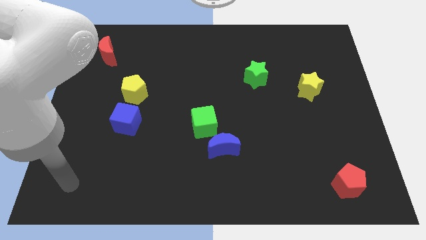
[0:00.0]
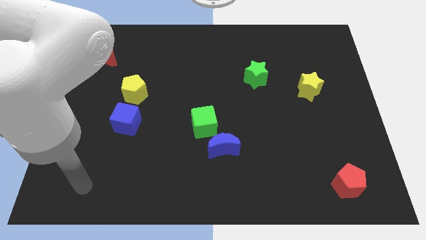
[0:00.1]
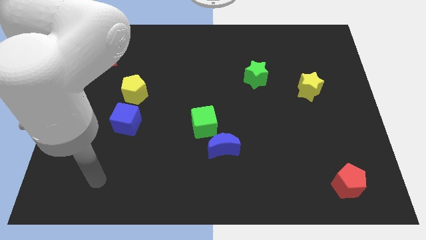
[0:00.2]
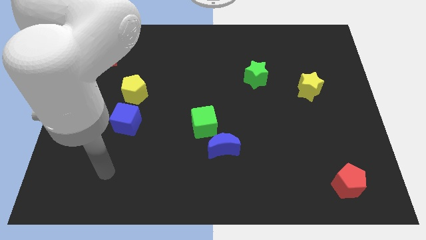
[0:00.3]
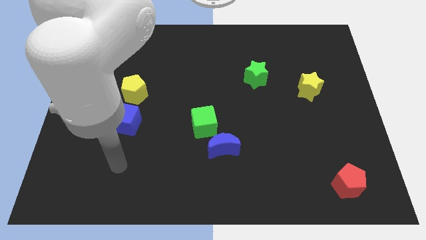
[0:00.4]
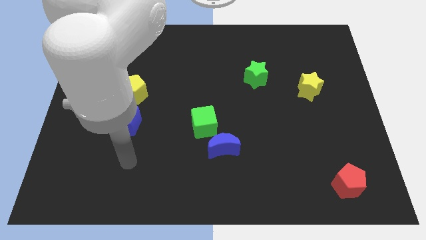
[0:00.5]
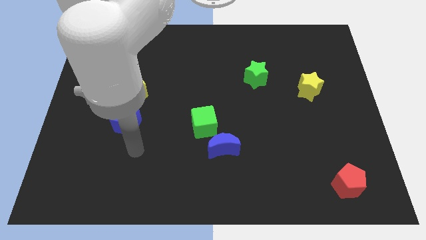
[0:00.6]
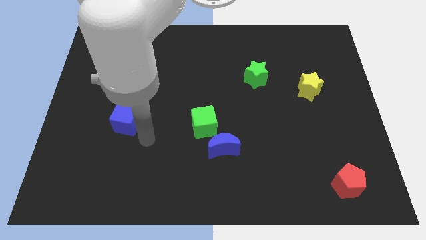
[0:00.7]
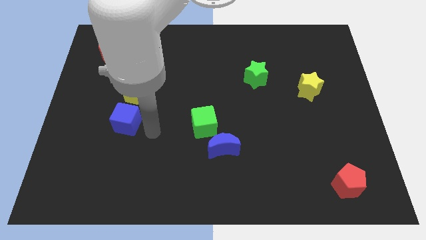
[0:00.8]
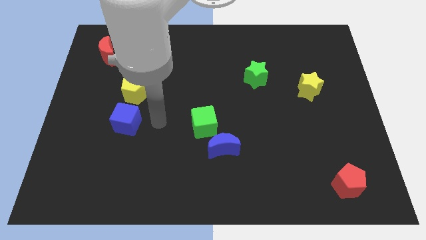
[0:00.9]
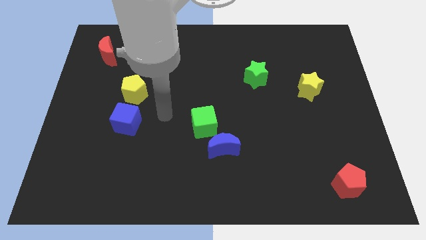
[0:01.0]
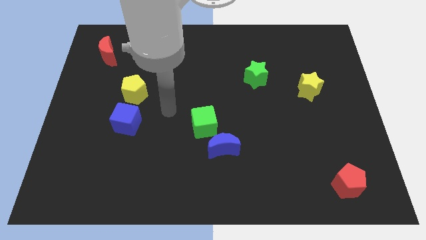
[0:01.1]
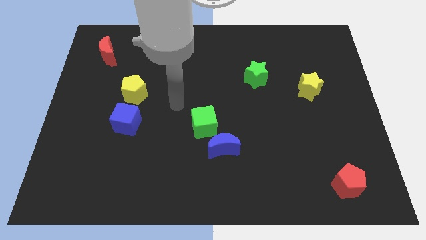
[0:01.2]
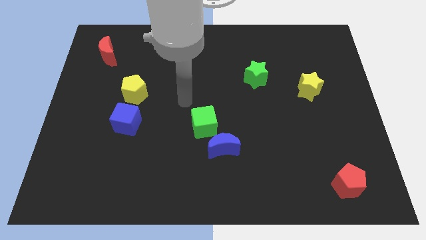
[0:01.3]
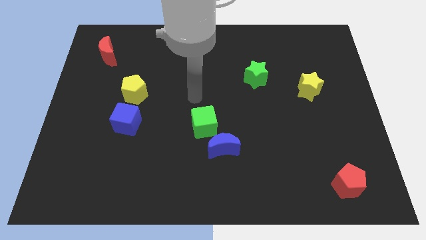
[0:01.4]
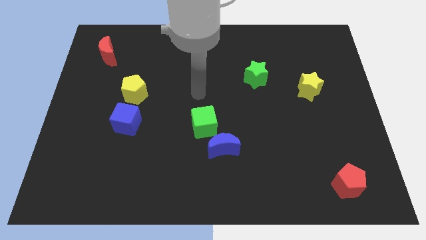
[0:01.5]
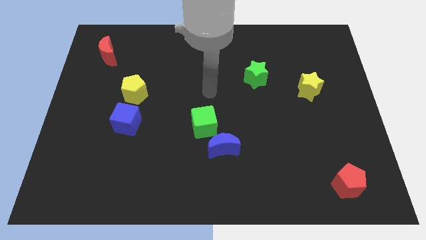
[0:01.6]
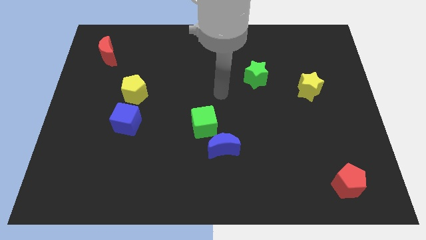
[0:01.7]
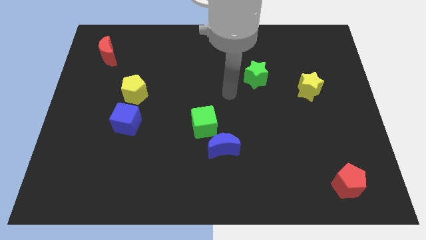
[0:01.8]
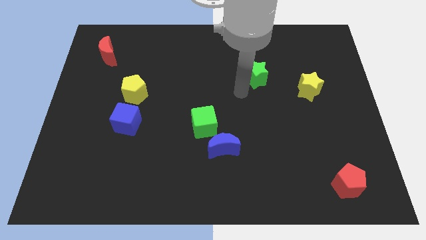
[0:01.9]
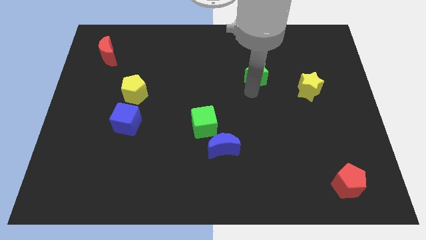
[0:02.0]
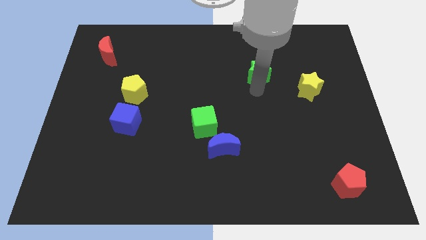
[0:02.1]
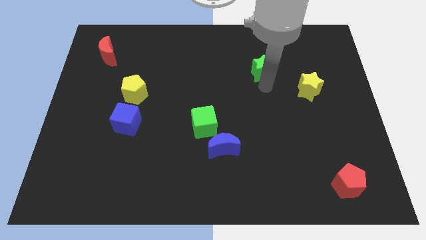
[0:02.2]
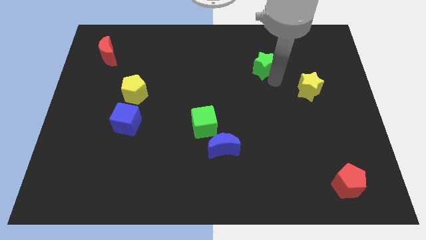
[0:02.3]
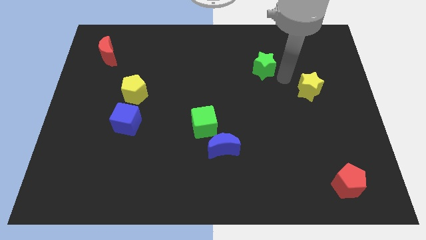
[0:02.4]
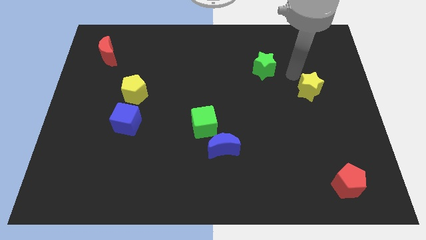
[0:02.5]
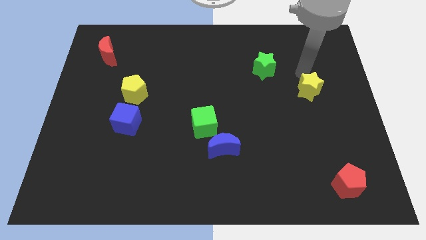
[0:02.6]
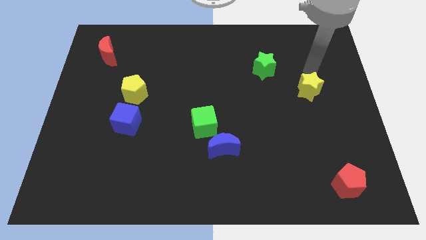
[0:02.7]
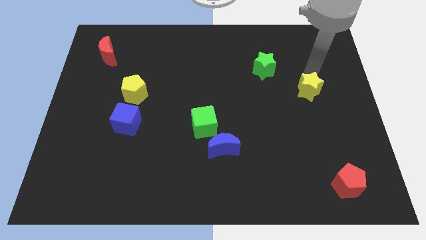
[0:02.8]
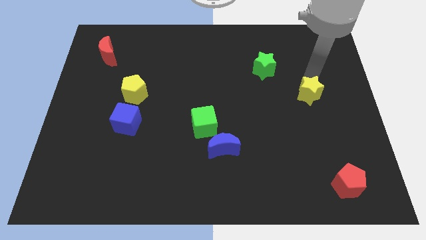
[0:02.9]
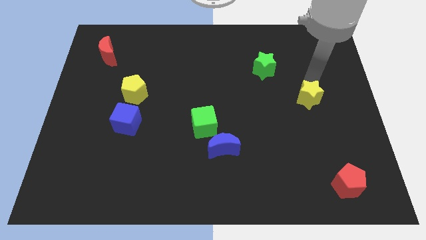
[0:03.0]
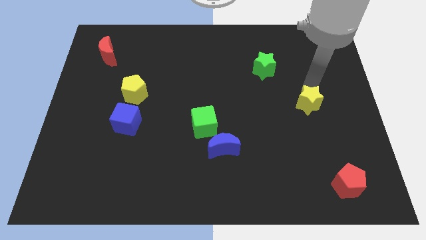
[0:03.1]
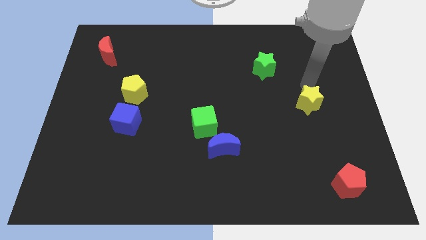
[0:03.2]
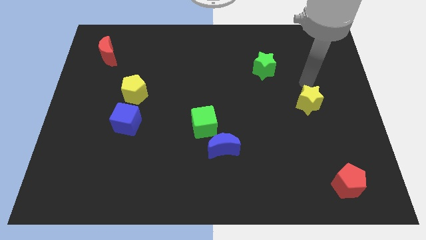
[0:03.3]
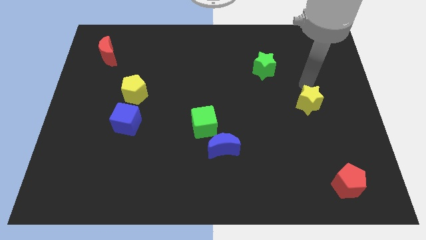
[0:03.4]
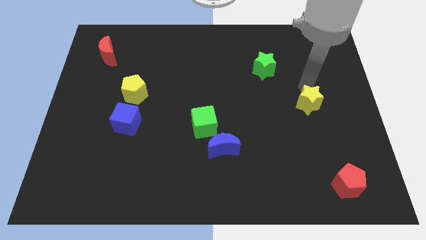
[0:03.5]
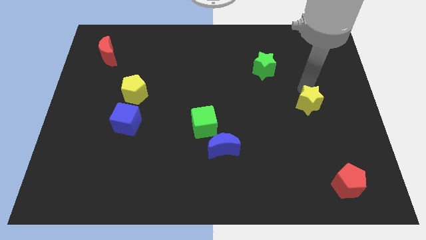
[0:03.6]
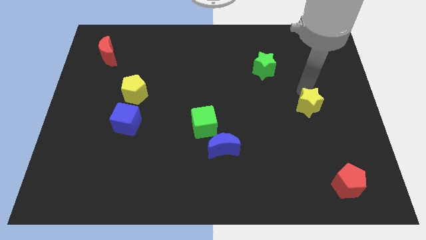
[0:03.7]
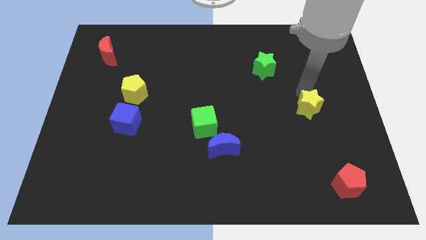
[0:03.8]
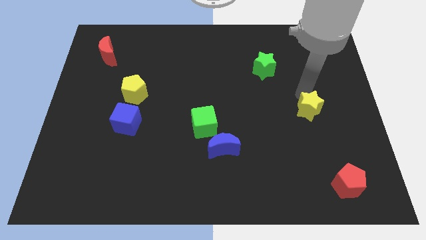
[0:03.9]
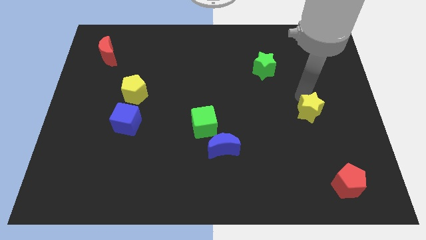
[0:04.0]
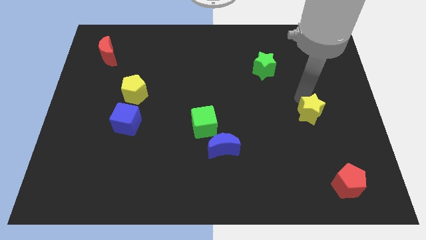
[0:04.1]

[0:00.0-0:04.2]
slightly move the yellow star downwards

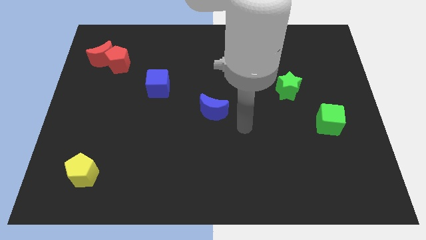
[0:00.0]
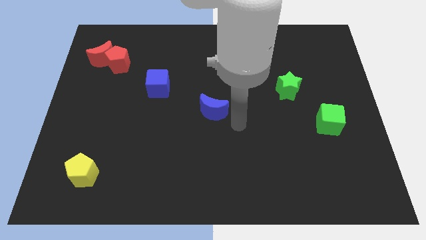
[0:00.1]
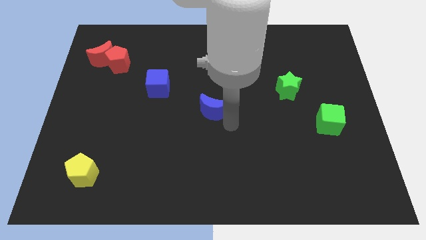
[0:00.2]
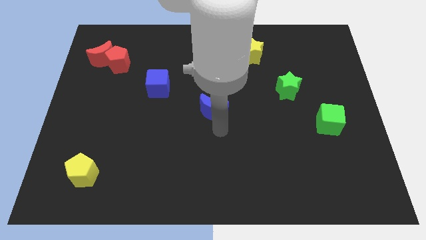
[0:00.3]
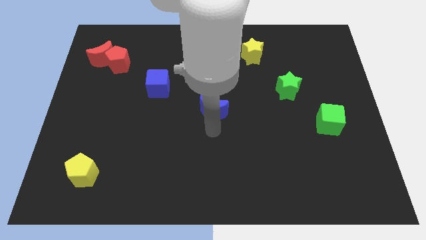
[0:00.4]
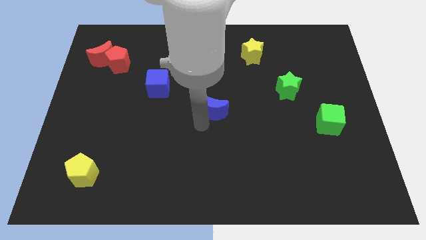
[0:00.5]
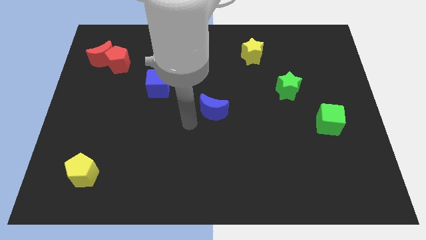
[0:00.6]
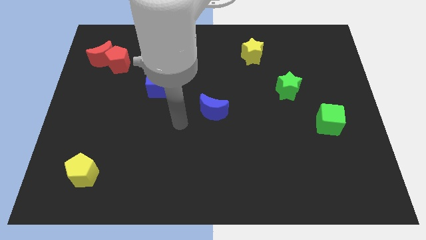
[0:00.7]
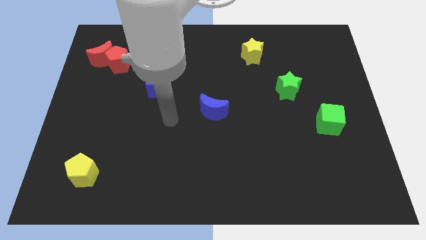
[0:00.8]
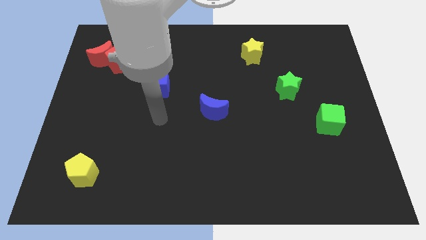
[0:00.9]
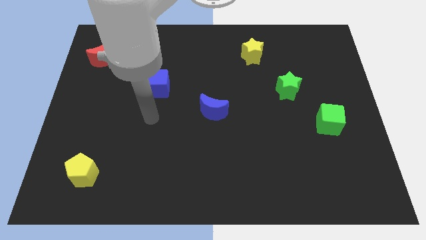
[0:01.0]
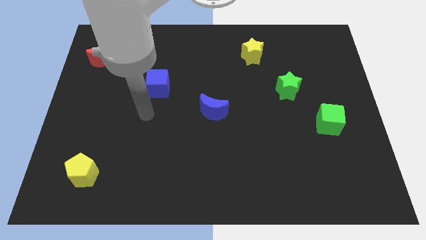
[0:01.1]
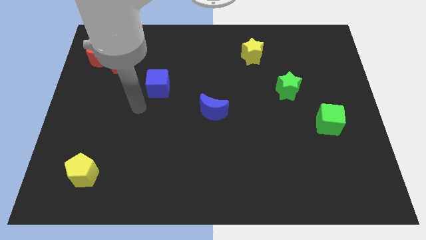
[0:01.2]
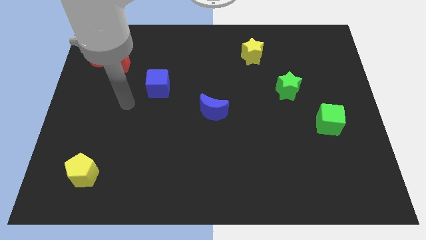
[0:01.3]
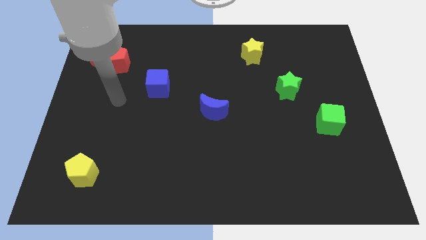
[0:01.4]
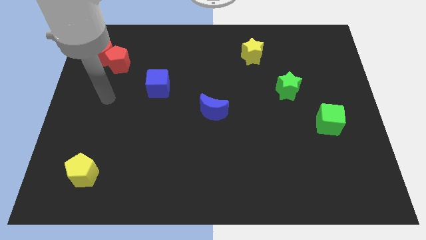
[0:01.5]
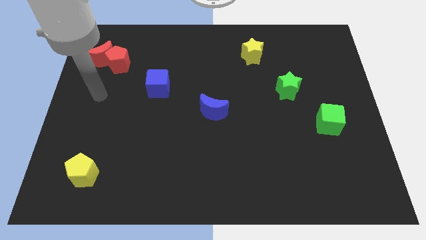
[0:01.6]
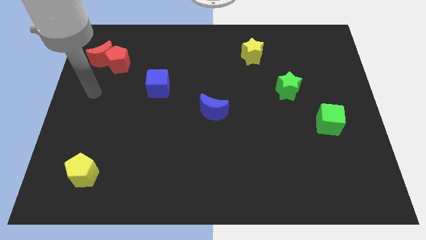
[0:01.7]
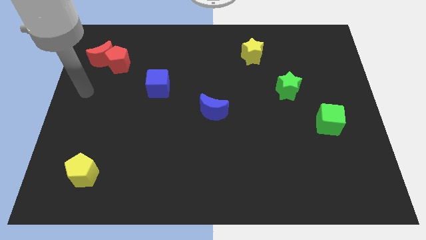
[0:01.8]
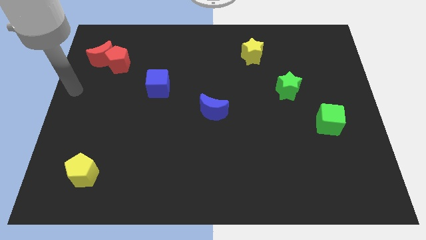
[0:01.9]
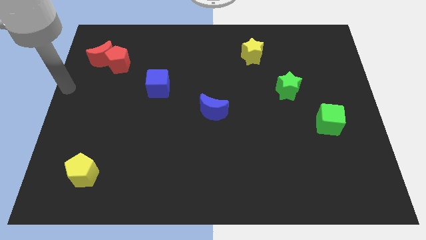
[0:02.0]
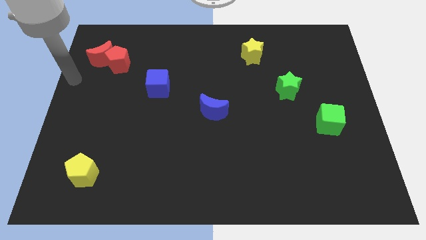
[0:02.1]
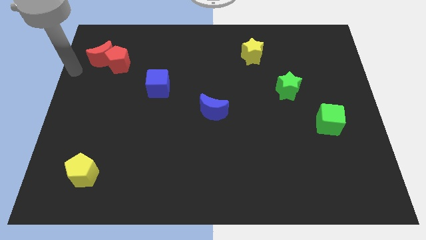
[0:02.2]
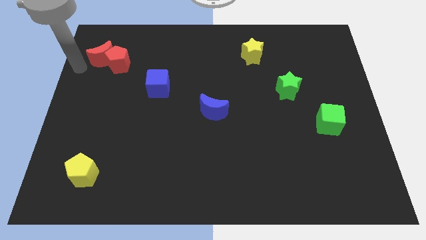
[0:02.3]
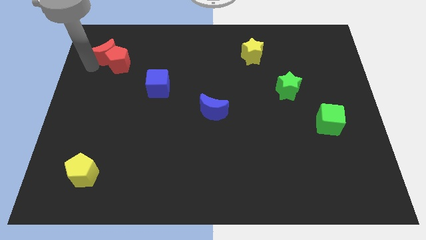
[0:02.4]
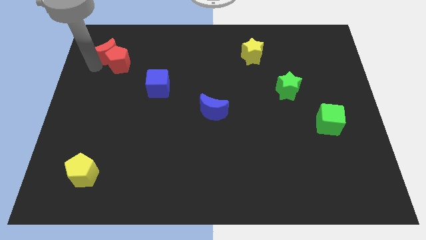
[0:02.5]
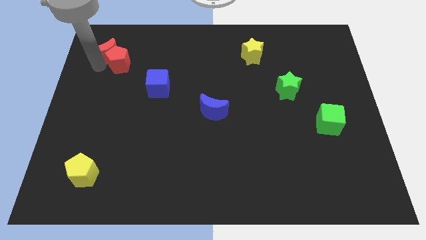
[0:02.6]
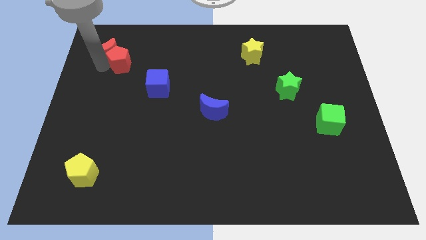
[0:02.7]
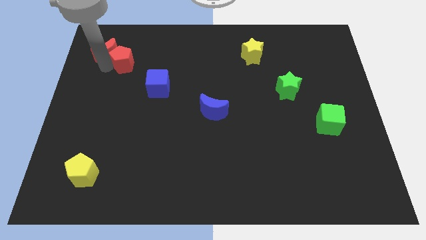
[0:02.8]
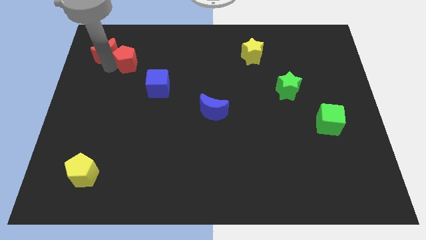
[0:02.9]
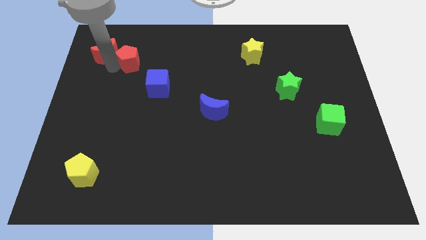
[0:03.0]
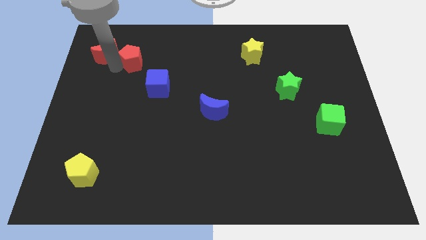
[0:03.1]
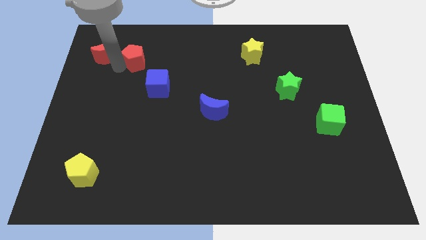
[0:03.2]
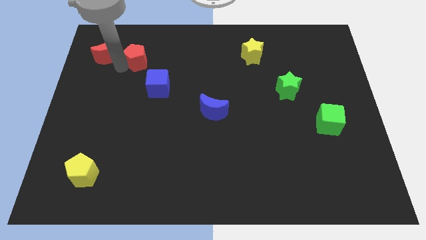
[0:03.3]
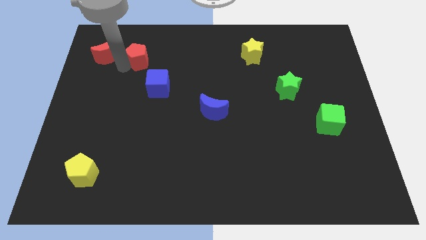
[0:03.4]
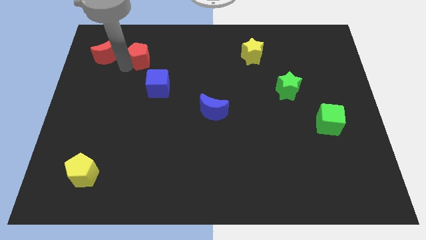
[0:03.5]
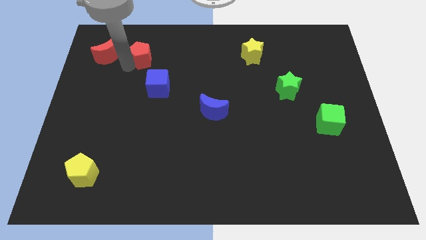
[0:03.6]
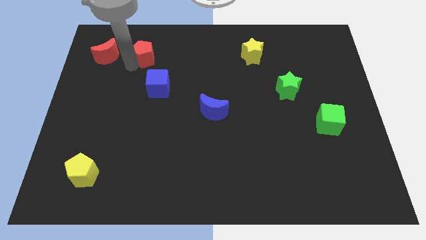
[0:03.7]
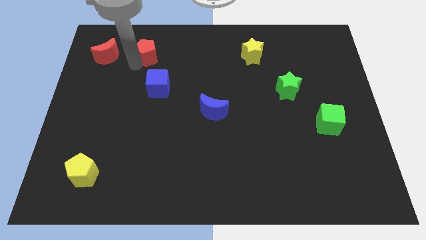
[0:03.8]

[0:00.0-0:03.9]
move the red pentagon right a bit
